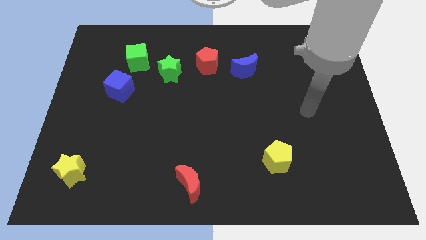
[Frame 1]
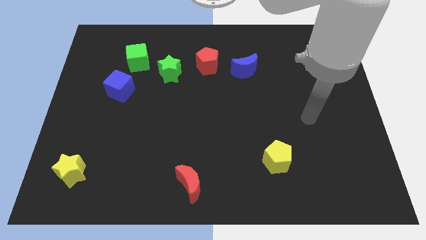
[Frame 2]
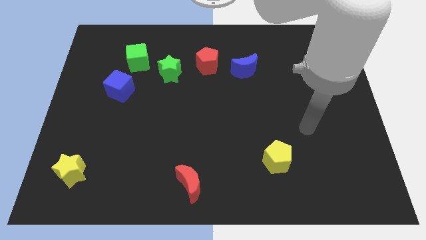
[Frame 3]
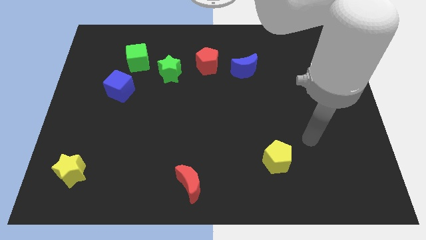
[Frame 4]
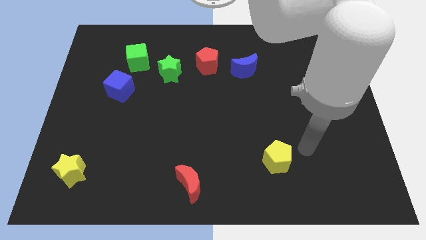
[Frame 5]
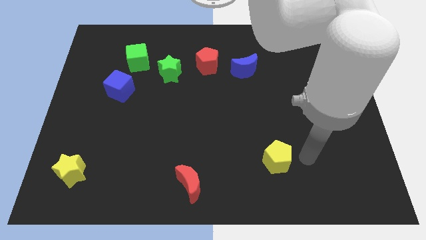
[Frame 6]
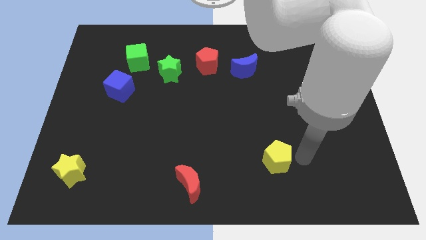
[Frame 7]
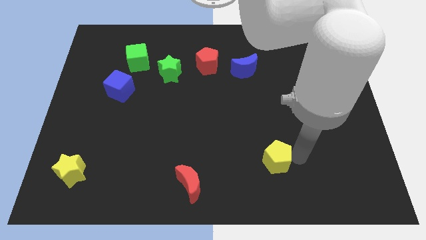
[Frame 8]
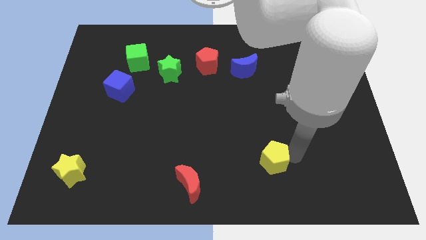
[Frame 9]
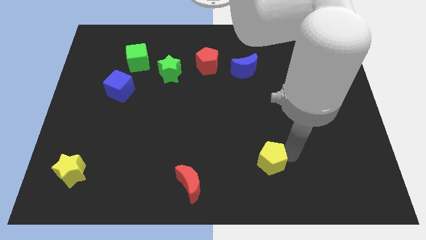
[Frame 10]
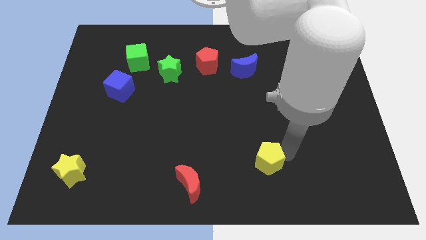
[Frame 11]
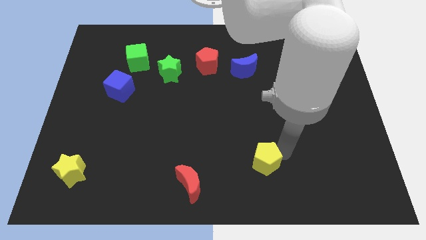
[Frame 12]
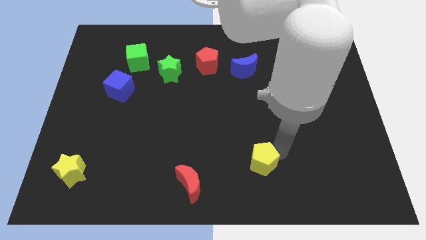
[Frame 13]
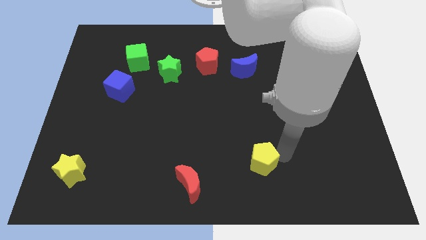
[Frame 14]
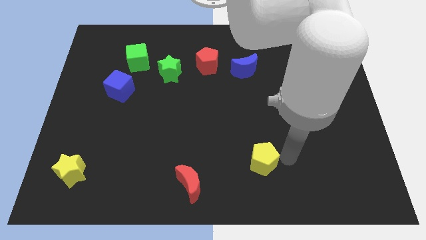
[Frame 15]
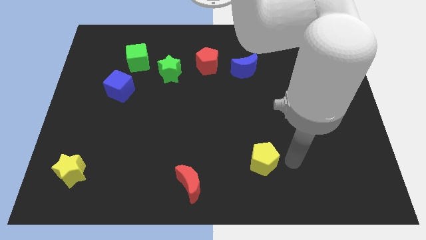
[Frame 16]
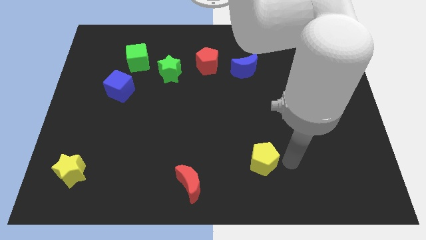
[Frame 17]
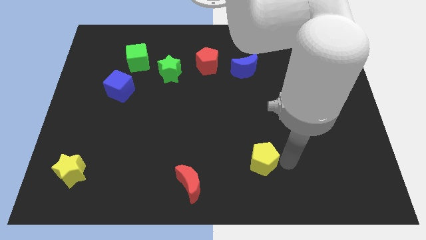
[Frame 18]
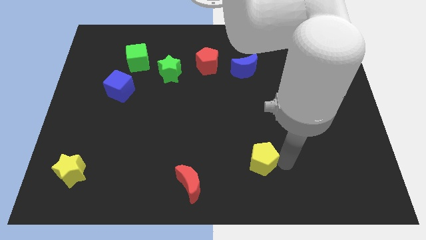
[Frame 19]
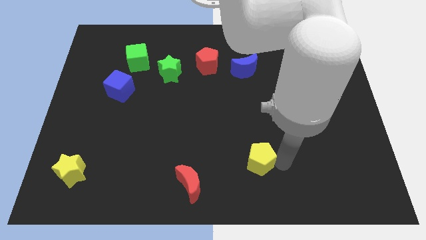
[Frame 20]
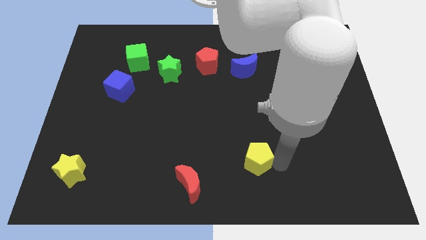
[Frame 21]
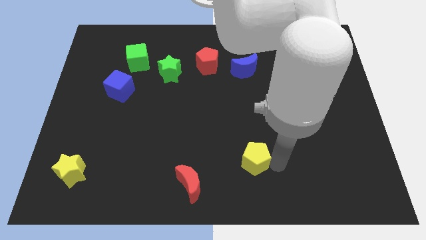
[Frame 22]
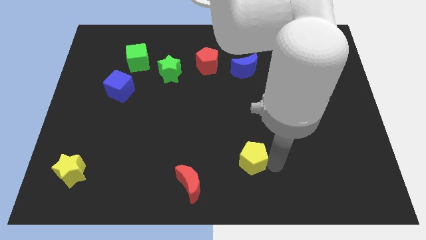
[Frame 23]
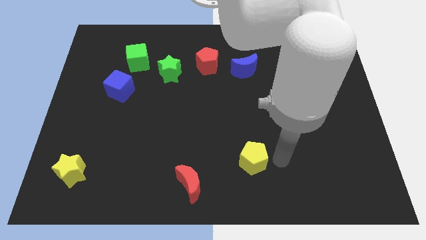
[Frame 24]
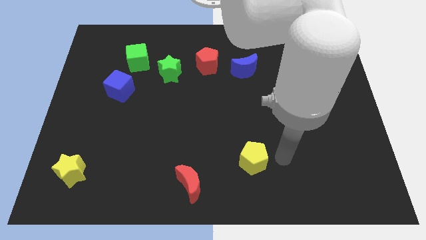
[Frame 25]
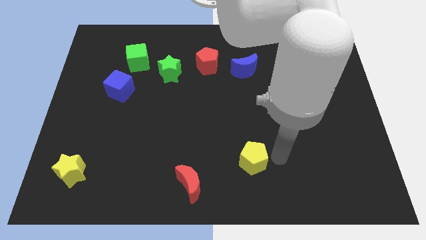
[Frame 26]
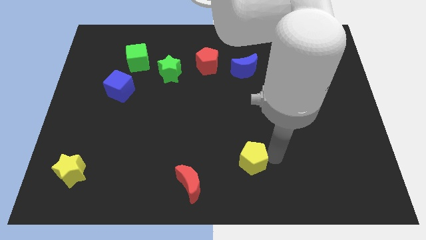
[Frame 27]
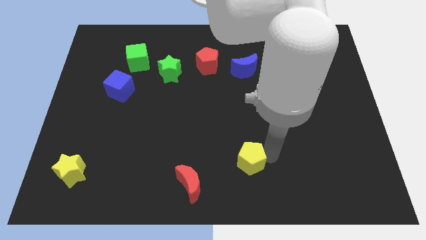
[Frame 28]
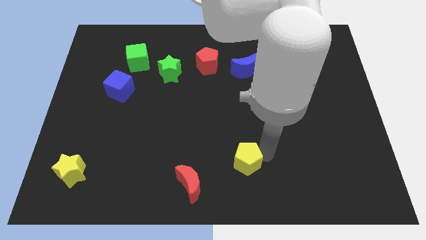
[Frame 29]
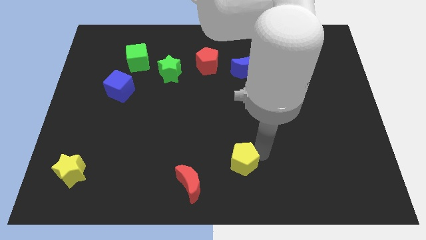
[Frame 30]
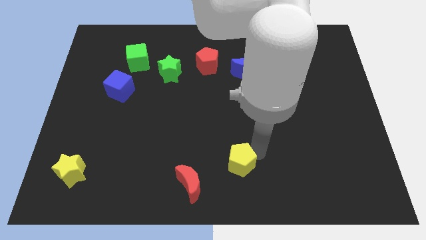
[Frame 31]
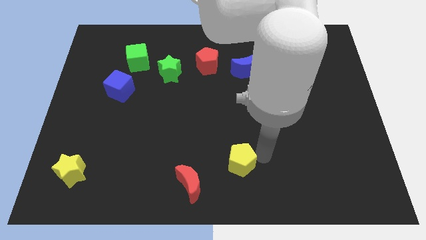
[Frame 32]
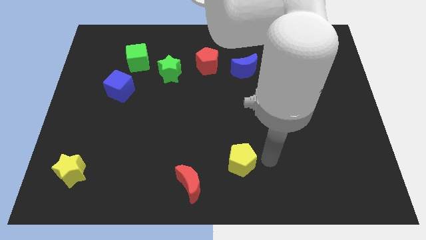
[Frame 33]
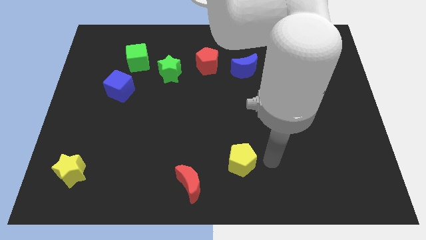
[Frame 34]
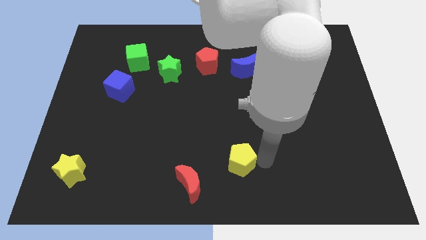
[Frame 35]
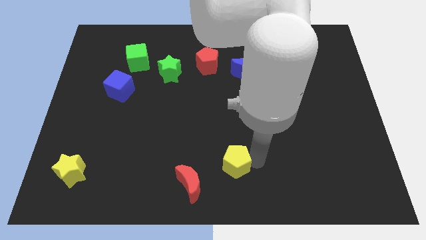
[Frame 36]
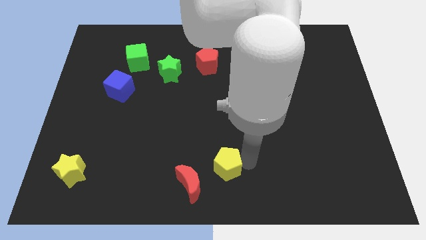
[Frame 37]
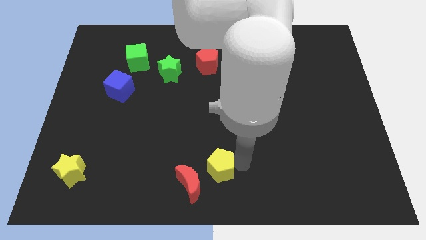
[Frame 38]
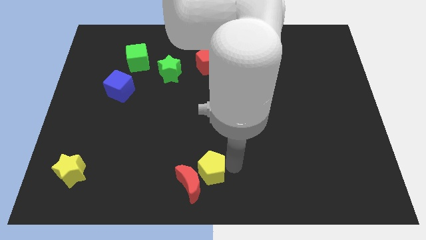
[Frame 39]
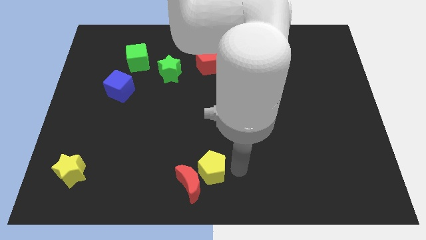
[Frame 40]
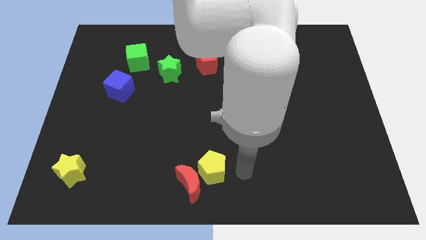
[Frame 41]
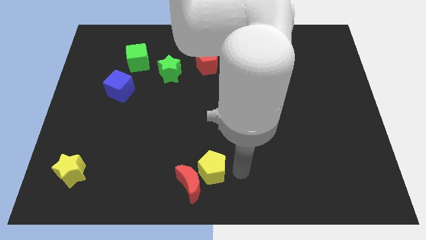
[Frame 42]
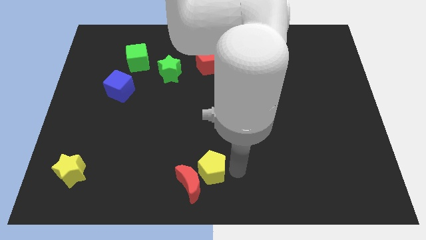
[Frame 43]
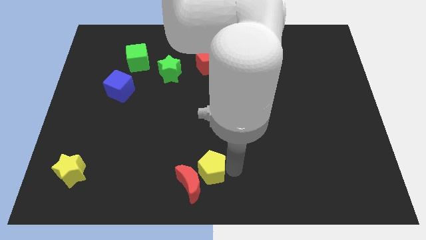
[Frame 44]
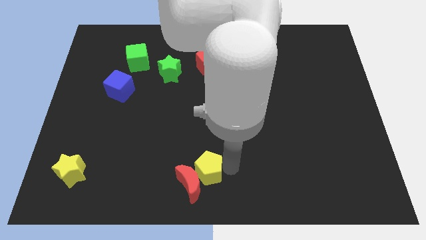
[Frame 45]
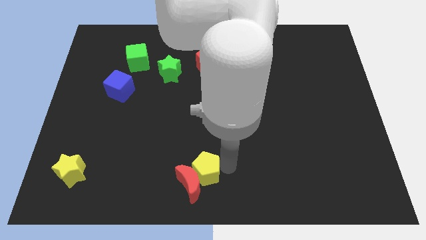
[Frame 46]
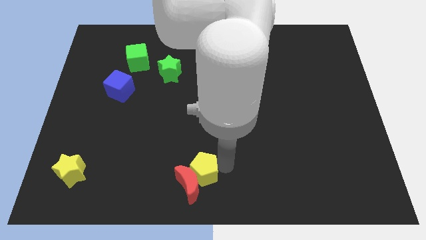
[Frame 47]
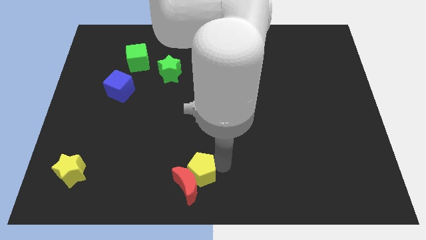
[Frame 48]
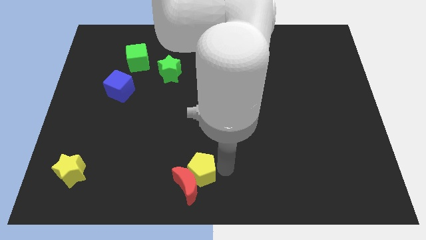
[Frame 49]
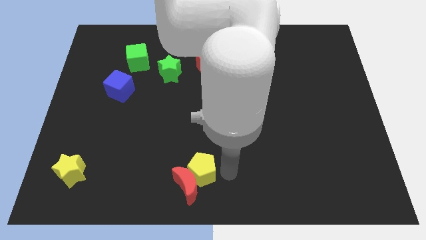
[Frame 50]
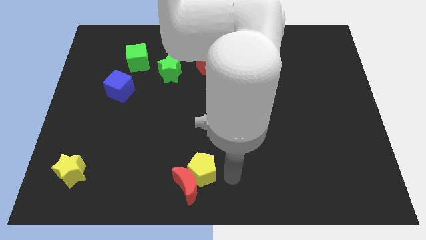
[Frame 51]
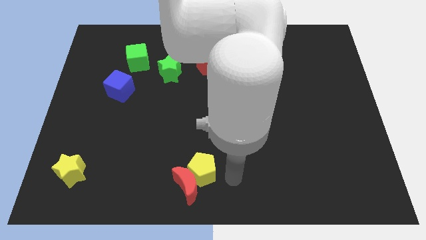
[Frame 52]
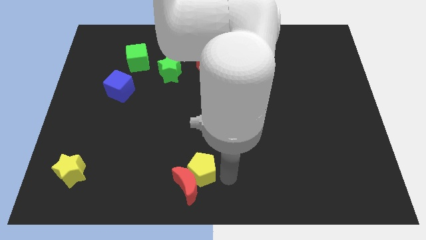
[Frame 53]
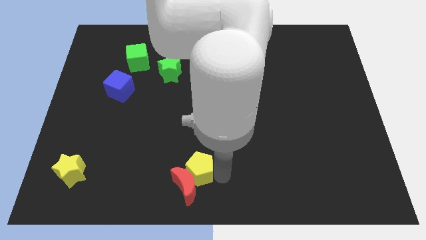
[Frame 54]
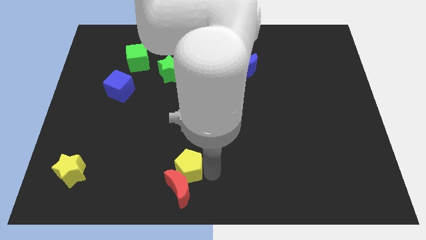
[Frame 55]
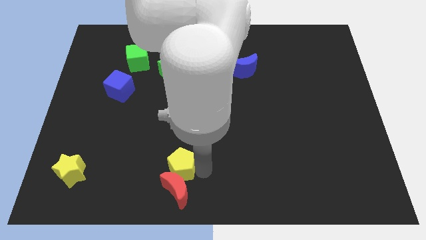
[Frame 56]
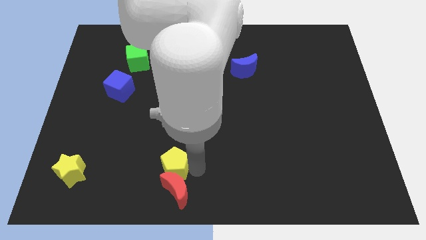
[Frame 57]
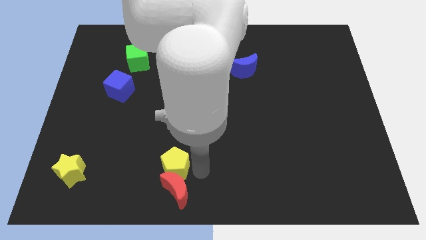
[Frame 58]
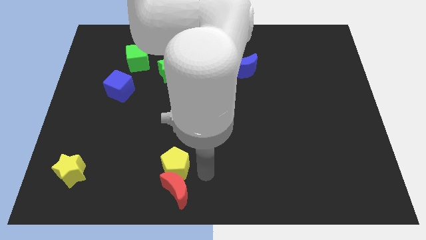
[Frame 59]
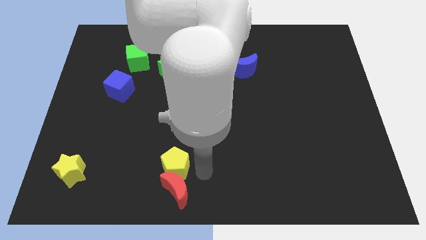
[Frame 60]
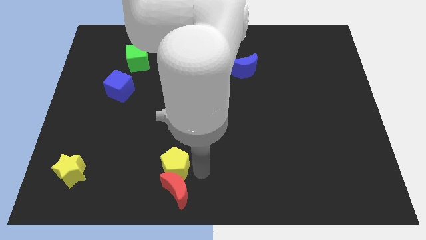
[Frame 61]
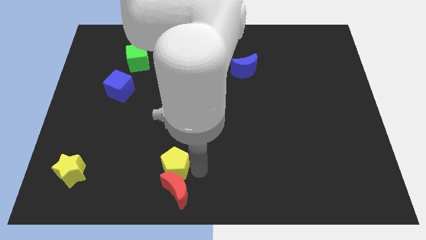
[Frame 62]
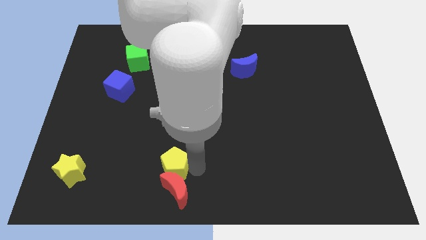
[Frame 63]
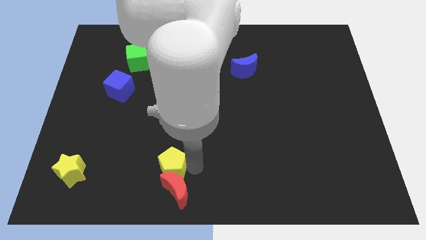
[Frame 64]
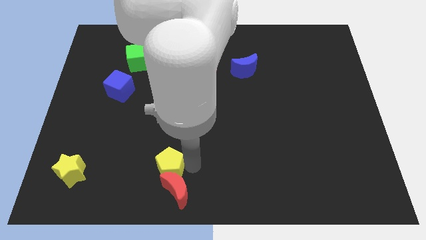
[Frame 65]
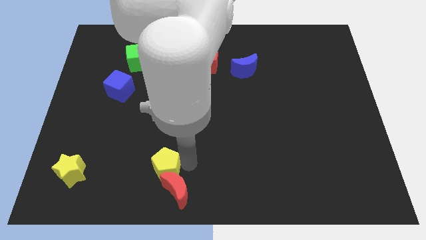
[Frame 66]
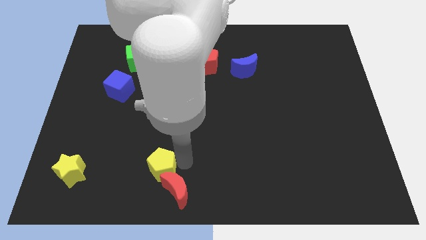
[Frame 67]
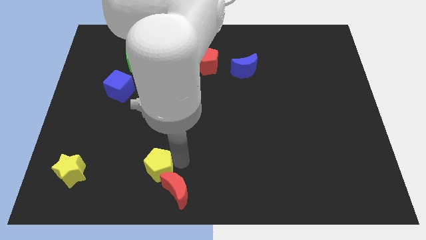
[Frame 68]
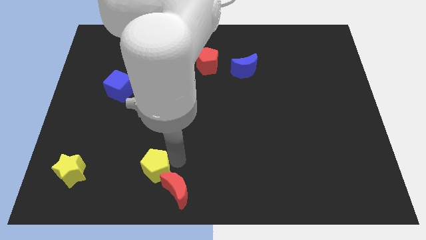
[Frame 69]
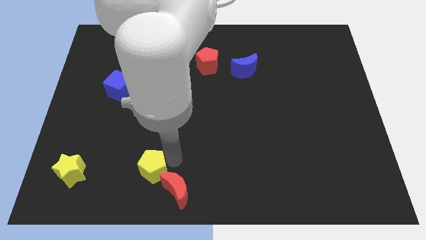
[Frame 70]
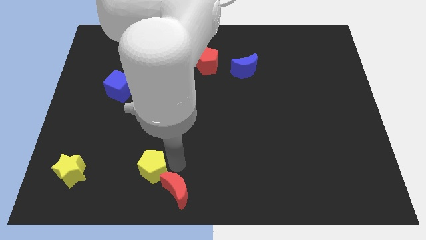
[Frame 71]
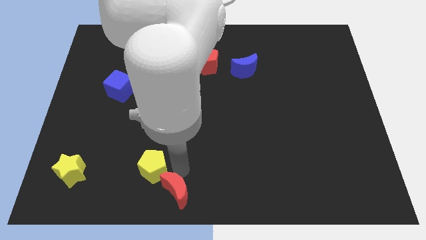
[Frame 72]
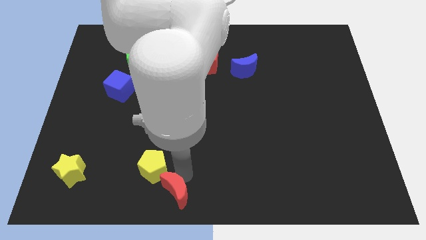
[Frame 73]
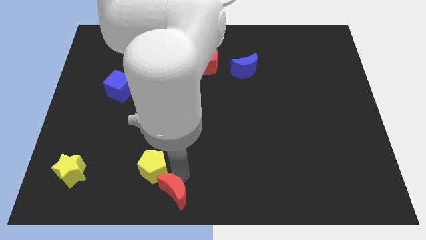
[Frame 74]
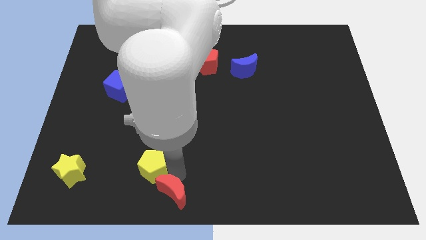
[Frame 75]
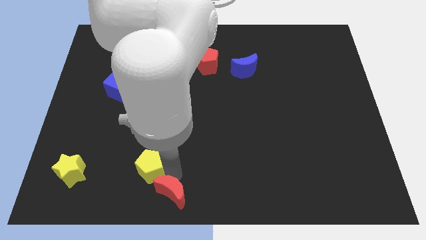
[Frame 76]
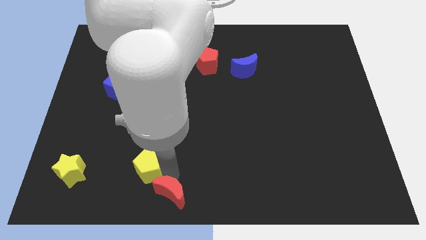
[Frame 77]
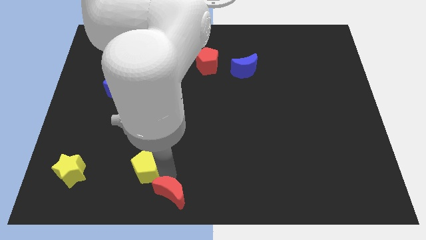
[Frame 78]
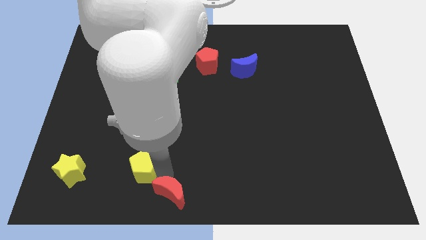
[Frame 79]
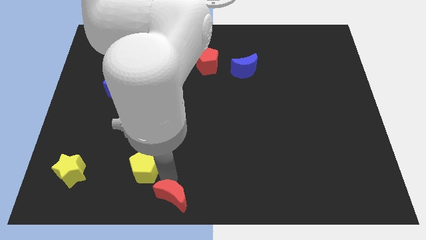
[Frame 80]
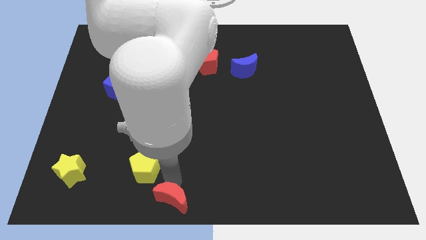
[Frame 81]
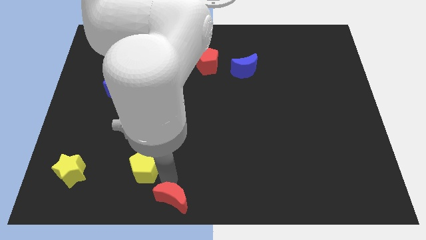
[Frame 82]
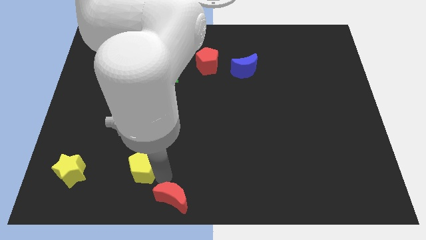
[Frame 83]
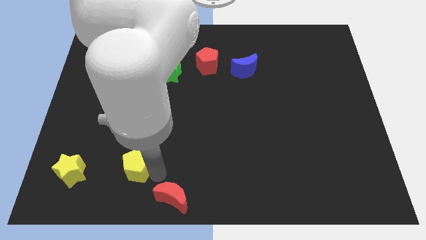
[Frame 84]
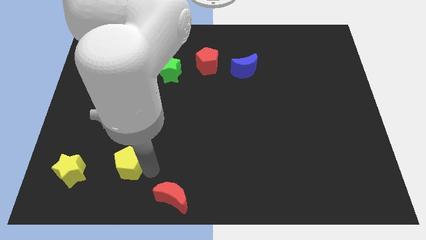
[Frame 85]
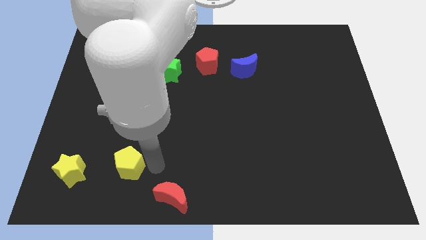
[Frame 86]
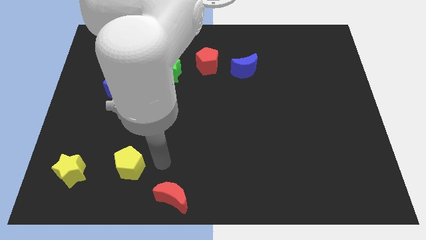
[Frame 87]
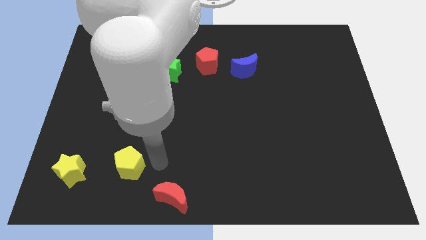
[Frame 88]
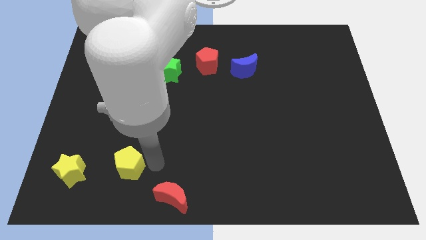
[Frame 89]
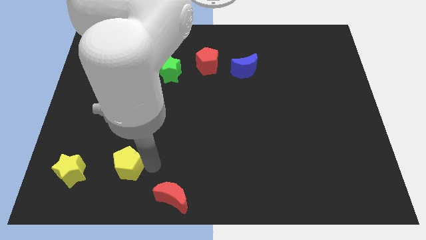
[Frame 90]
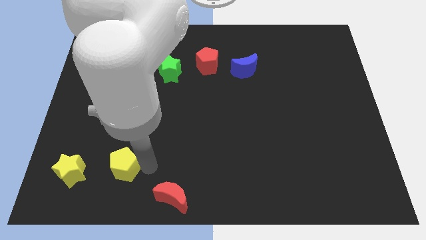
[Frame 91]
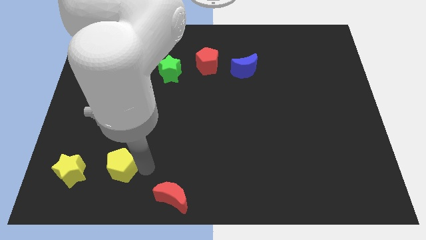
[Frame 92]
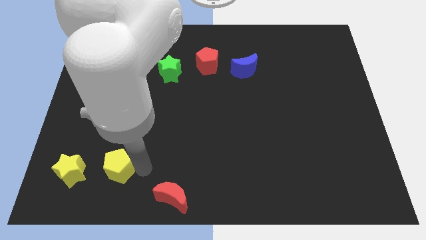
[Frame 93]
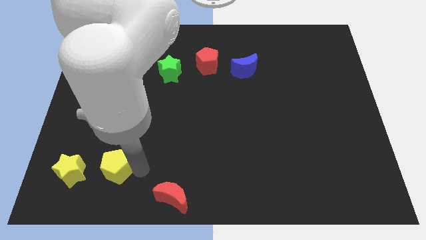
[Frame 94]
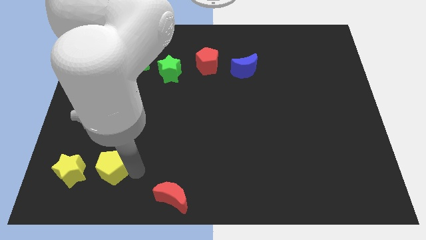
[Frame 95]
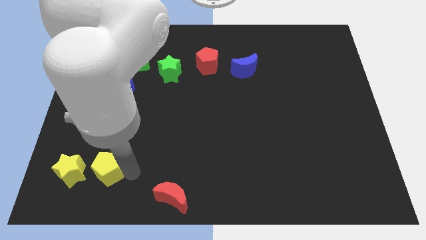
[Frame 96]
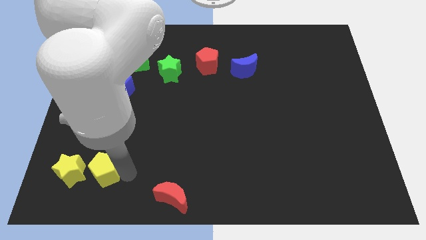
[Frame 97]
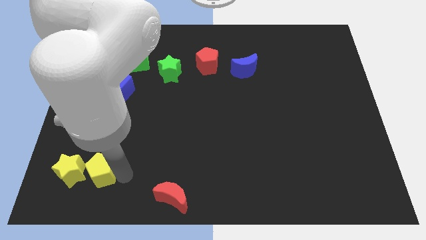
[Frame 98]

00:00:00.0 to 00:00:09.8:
put the yellow pentagon towards the yellow star
